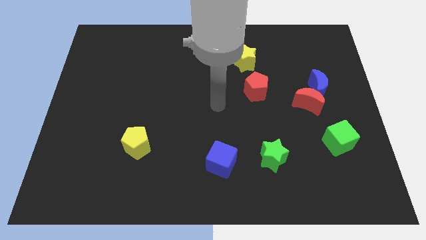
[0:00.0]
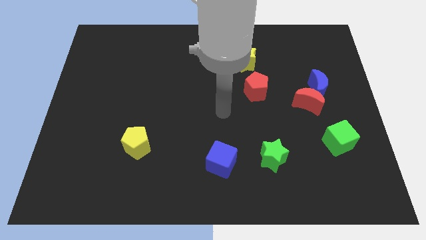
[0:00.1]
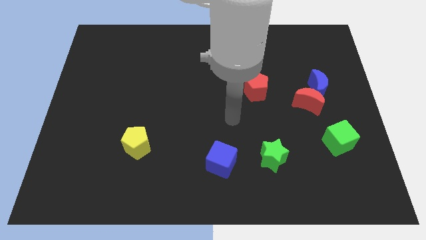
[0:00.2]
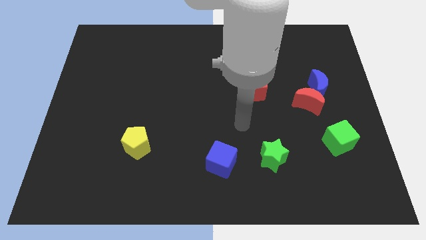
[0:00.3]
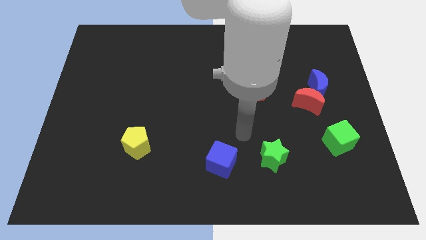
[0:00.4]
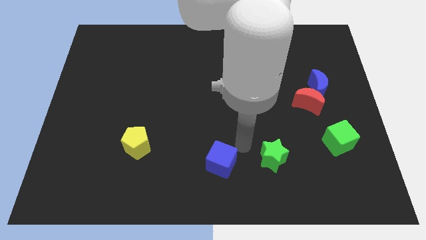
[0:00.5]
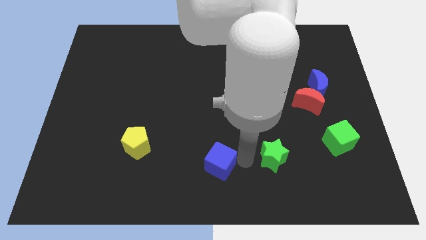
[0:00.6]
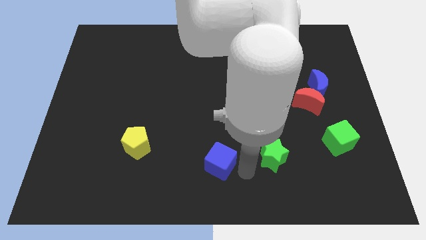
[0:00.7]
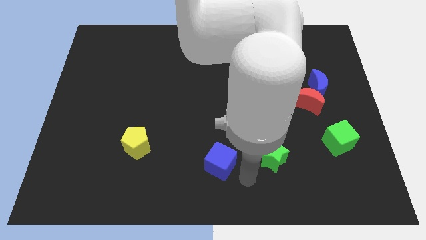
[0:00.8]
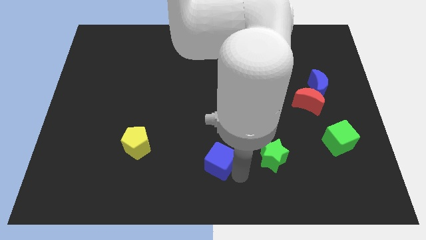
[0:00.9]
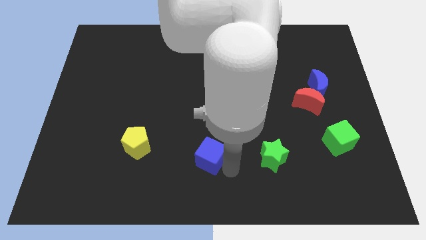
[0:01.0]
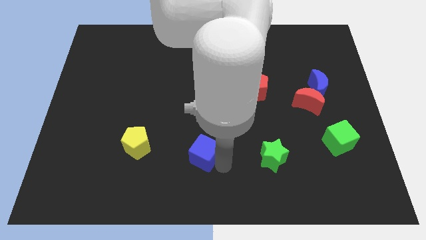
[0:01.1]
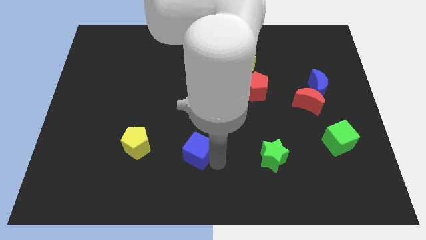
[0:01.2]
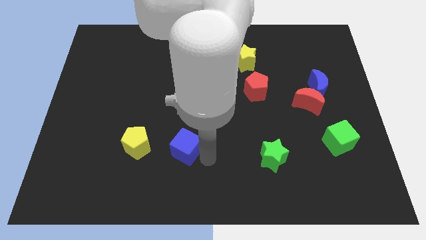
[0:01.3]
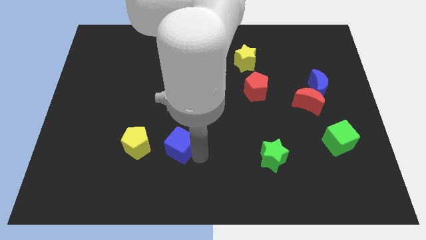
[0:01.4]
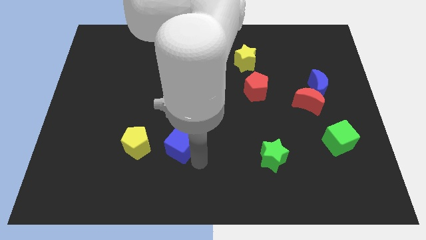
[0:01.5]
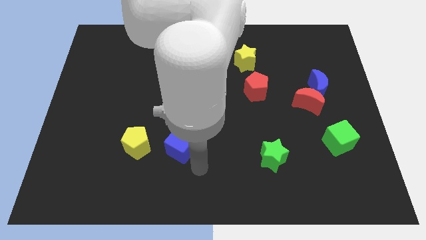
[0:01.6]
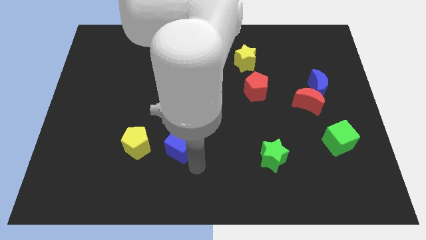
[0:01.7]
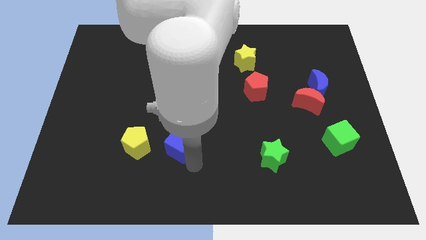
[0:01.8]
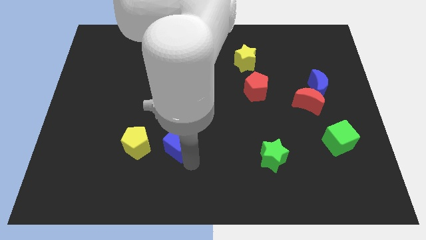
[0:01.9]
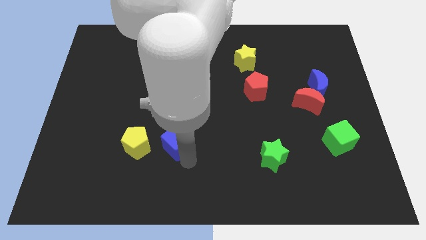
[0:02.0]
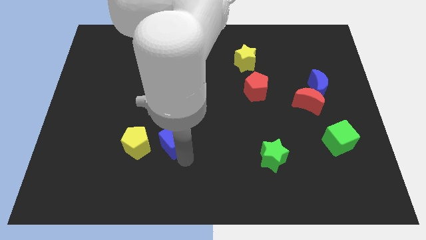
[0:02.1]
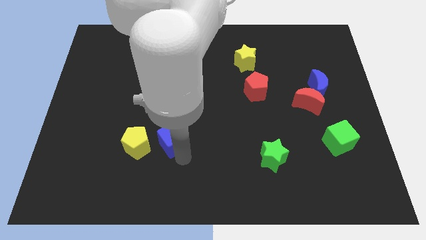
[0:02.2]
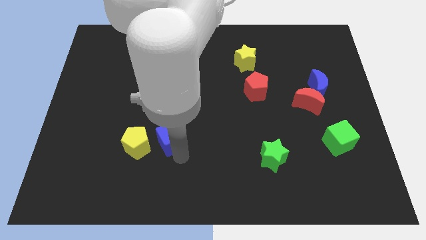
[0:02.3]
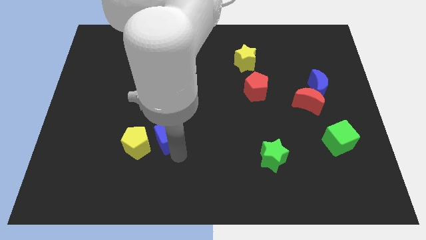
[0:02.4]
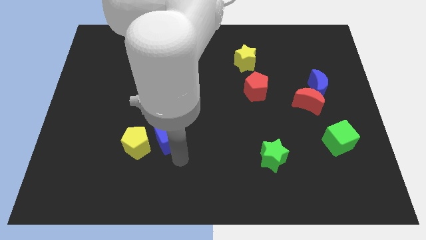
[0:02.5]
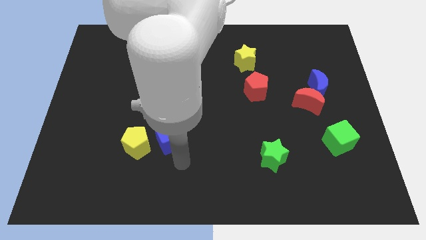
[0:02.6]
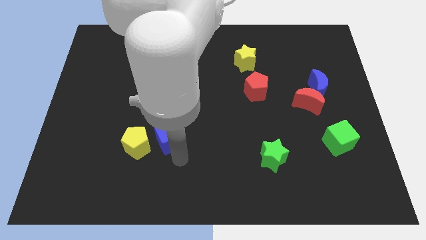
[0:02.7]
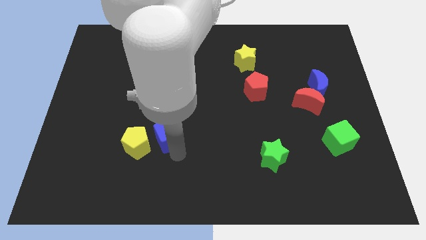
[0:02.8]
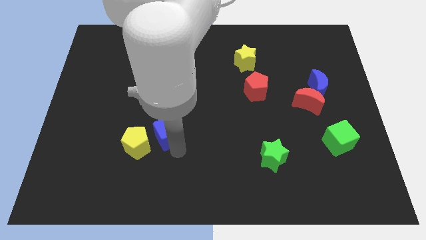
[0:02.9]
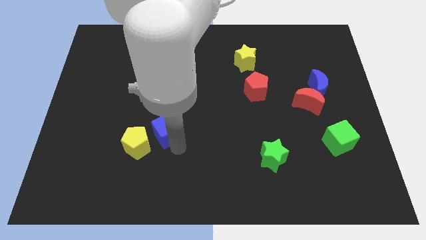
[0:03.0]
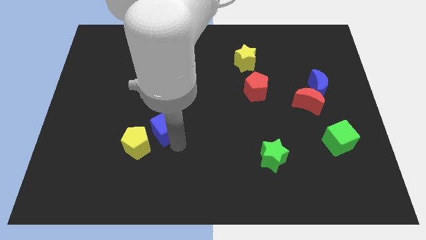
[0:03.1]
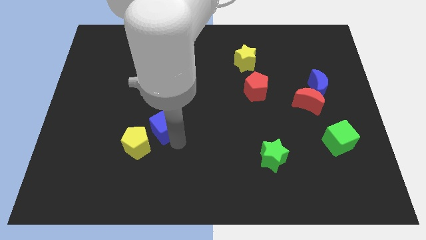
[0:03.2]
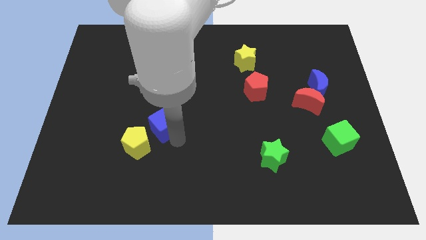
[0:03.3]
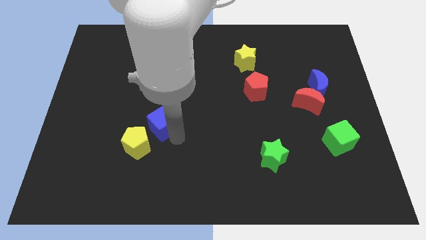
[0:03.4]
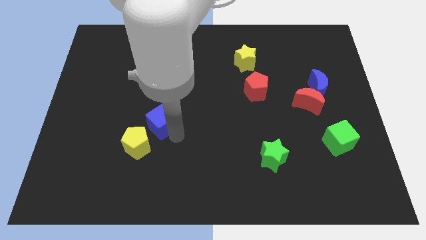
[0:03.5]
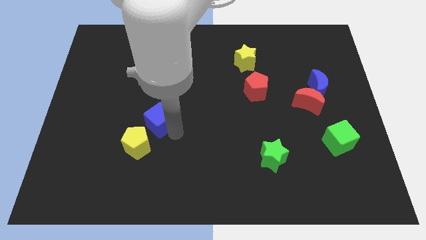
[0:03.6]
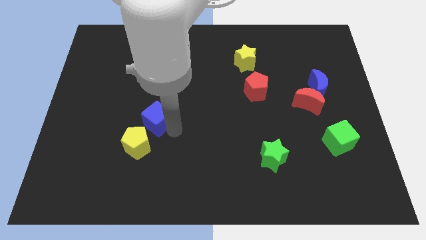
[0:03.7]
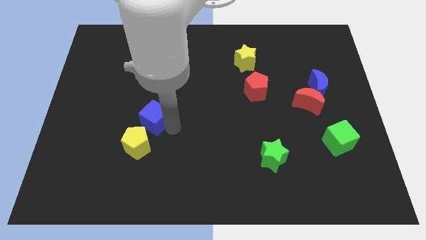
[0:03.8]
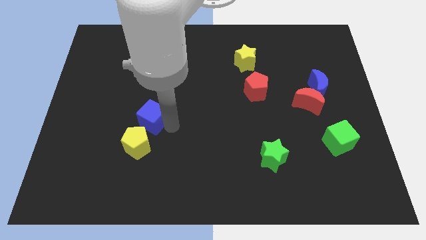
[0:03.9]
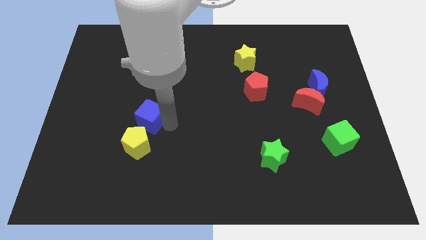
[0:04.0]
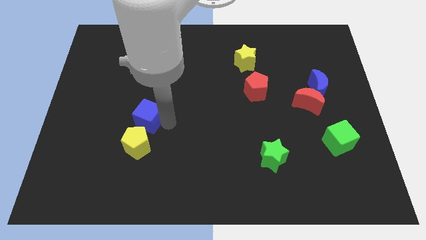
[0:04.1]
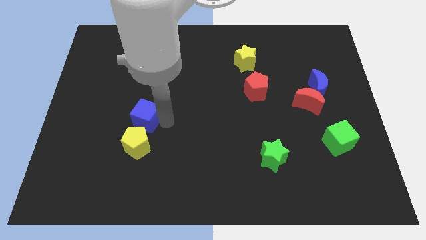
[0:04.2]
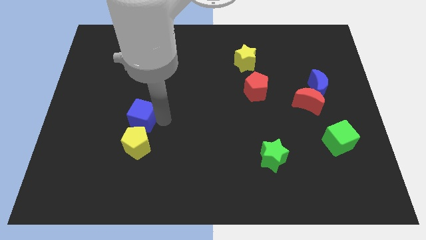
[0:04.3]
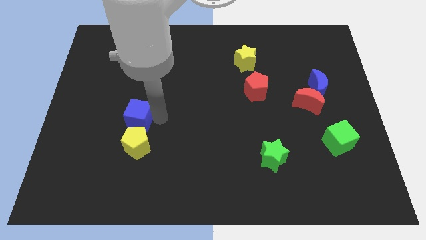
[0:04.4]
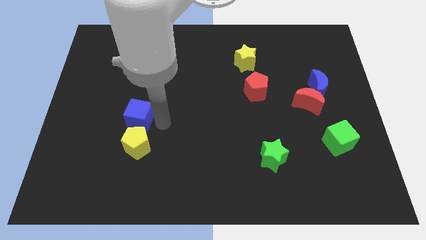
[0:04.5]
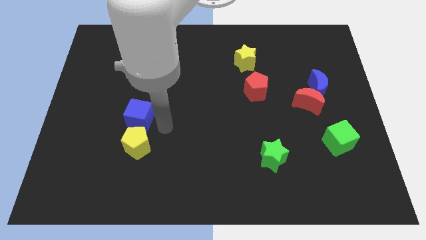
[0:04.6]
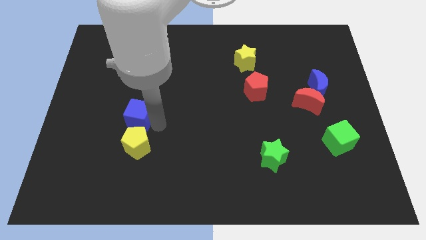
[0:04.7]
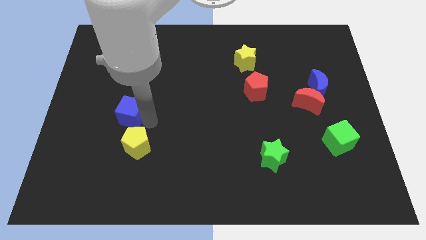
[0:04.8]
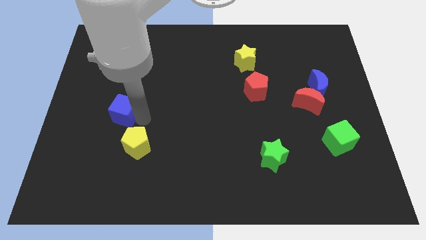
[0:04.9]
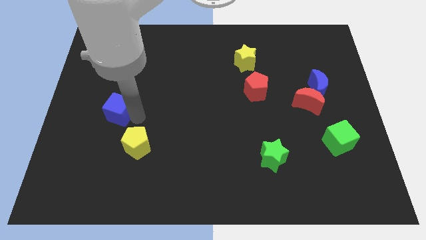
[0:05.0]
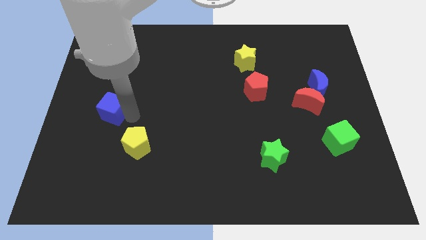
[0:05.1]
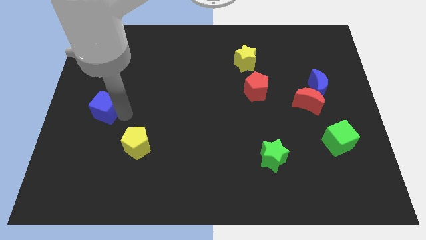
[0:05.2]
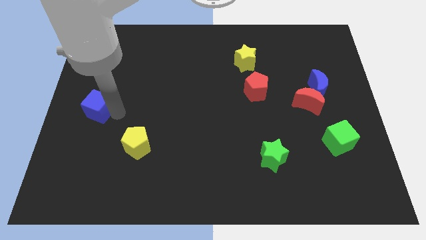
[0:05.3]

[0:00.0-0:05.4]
push the blue cube to the left side
